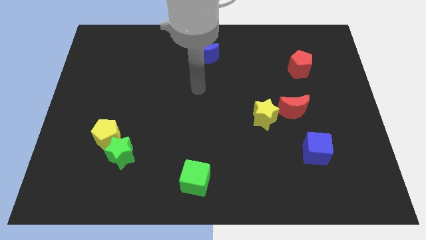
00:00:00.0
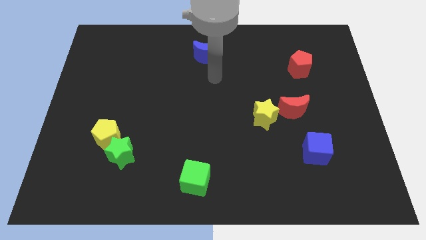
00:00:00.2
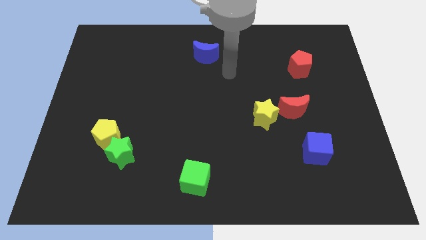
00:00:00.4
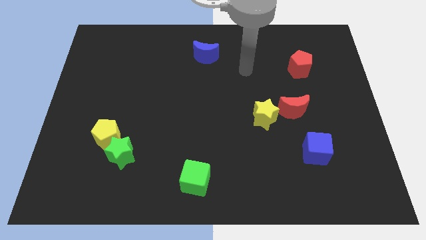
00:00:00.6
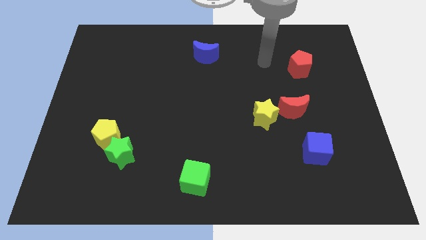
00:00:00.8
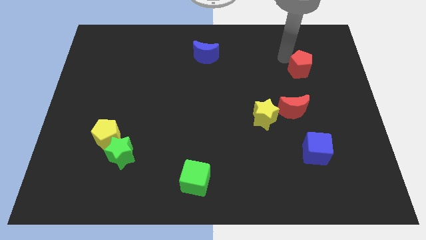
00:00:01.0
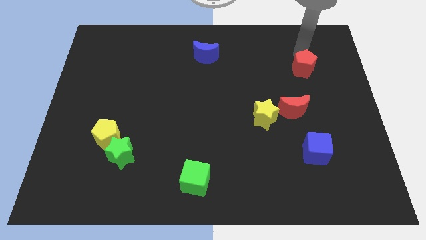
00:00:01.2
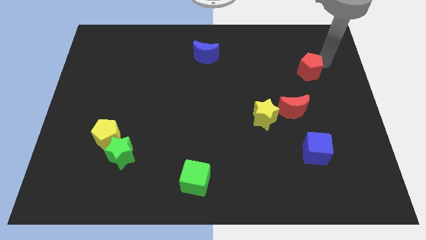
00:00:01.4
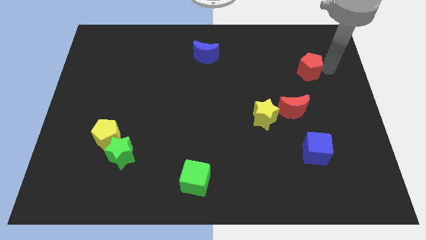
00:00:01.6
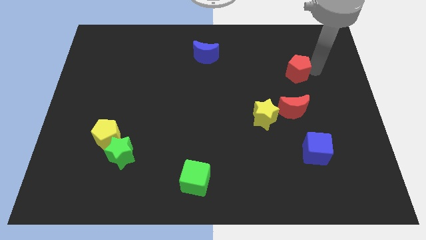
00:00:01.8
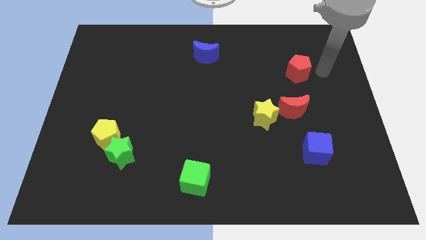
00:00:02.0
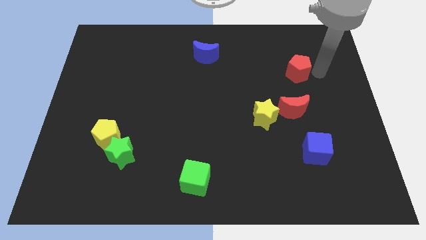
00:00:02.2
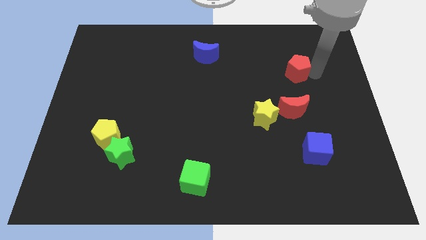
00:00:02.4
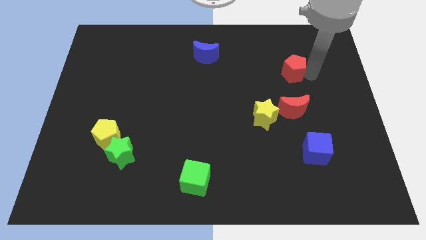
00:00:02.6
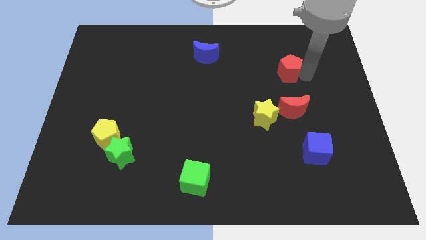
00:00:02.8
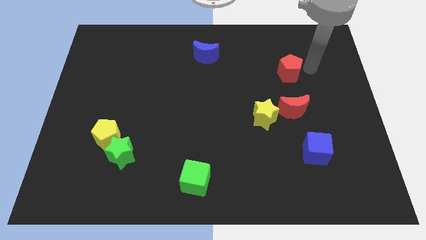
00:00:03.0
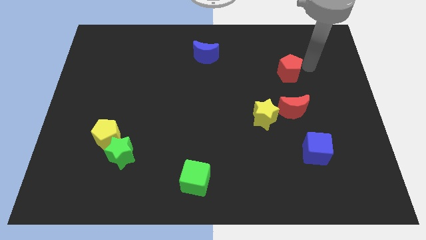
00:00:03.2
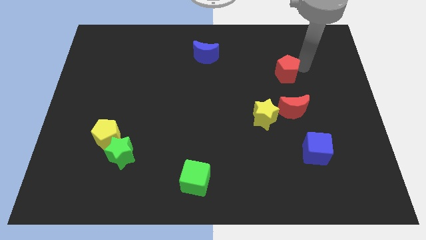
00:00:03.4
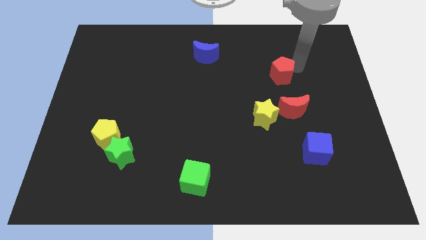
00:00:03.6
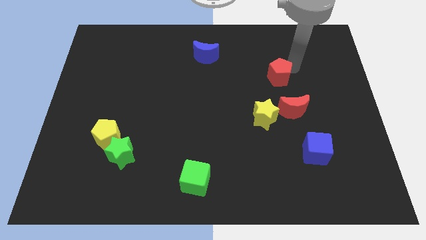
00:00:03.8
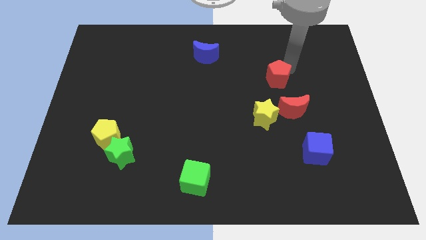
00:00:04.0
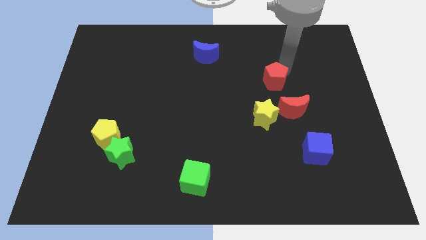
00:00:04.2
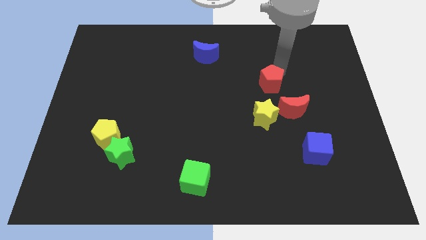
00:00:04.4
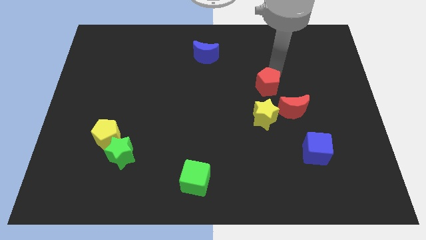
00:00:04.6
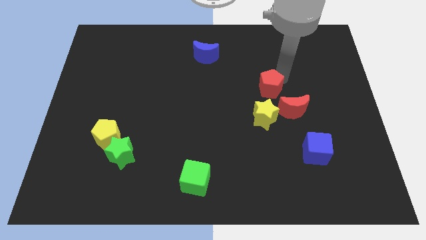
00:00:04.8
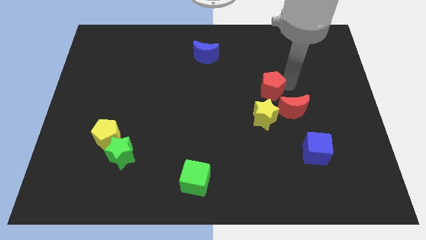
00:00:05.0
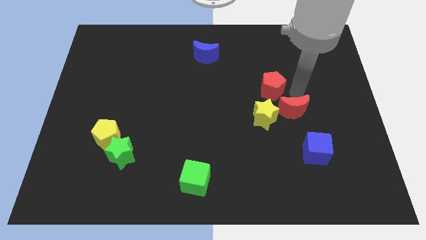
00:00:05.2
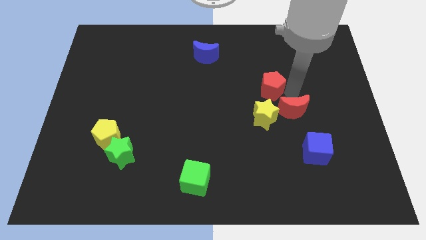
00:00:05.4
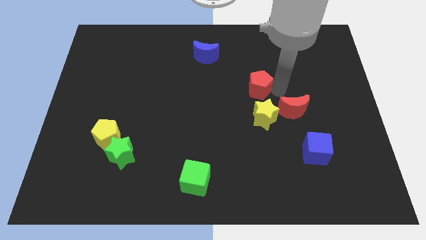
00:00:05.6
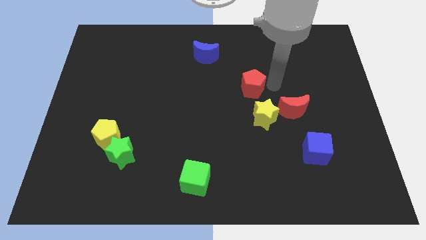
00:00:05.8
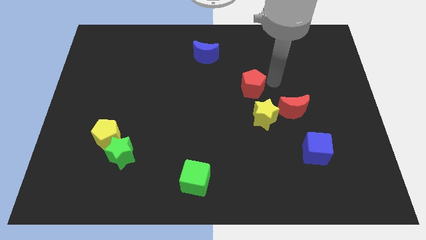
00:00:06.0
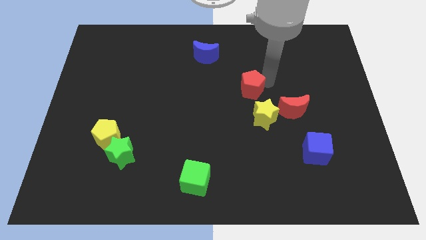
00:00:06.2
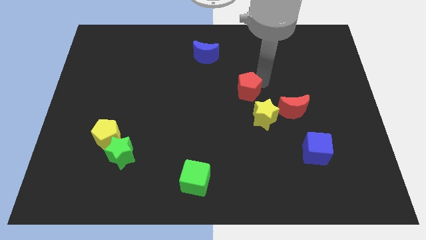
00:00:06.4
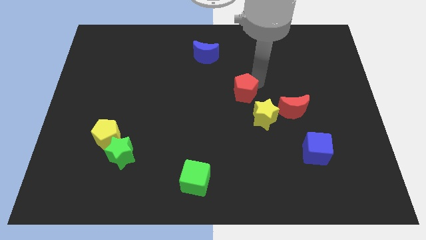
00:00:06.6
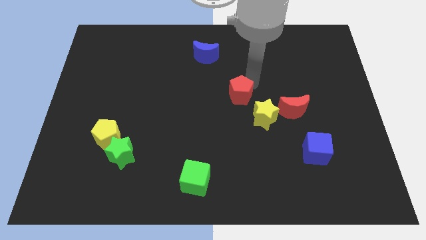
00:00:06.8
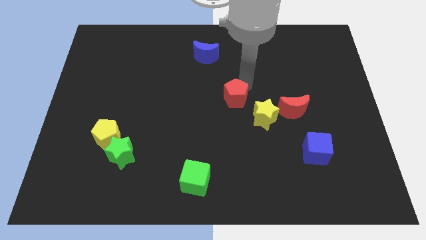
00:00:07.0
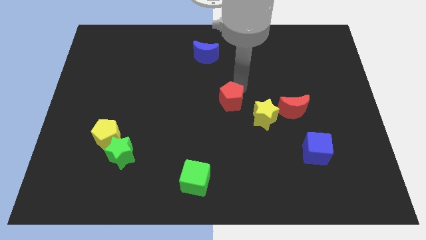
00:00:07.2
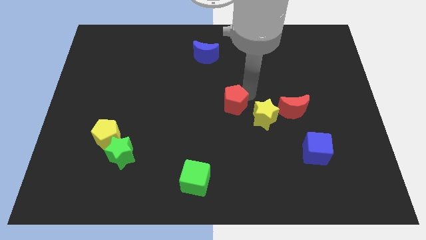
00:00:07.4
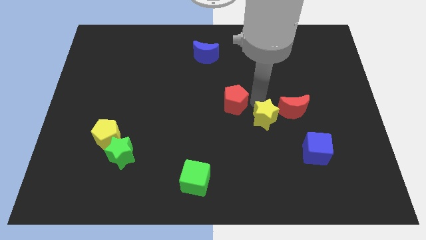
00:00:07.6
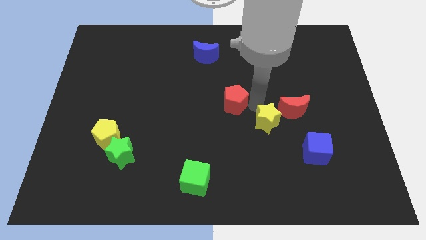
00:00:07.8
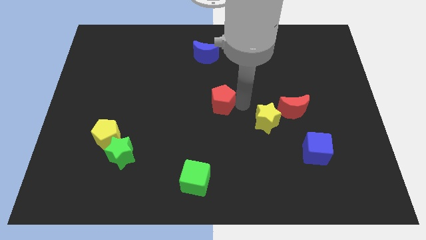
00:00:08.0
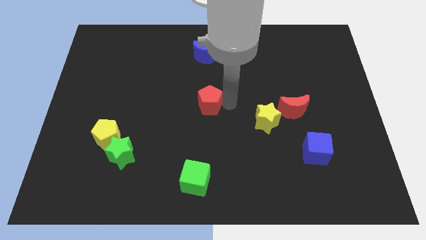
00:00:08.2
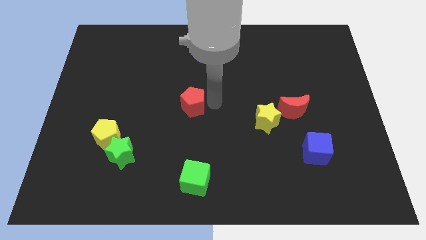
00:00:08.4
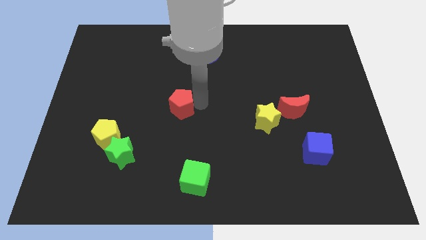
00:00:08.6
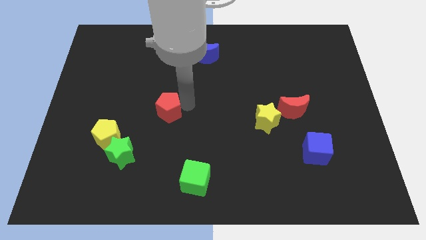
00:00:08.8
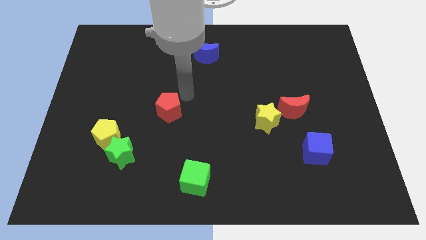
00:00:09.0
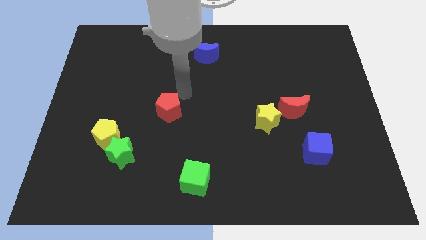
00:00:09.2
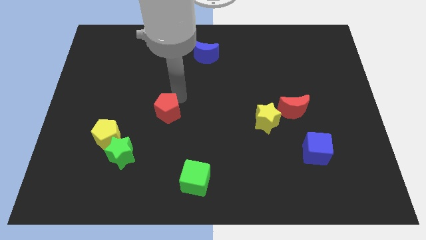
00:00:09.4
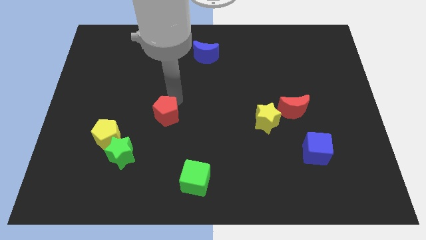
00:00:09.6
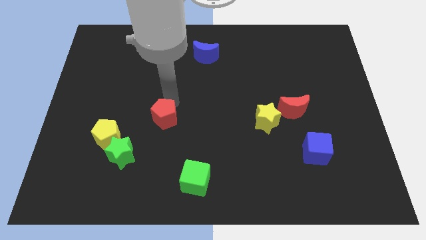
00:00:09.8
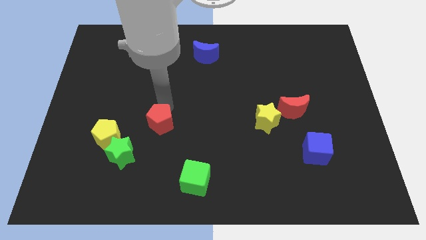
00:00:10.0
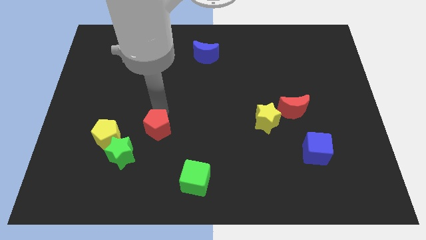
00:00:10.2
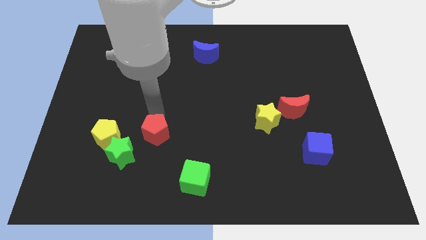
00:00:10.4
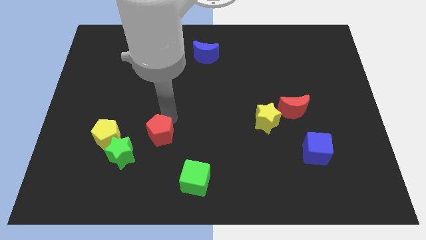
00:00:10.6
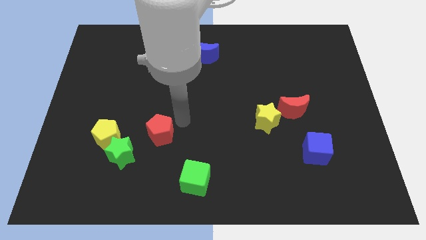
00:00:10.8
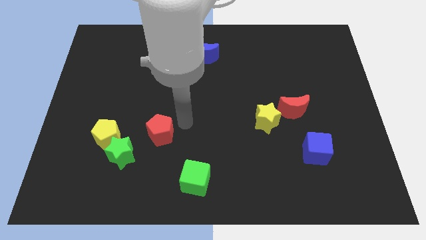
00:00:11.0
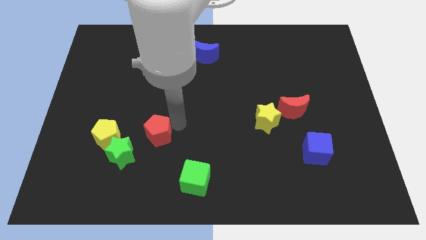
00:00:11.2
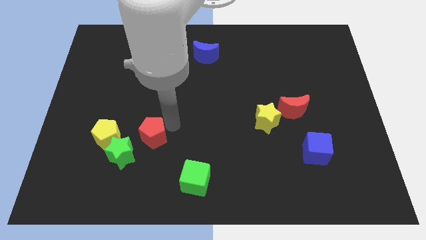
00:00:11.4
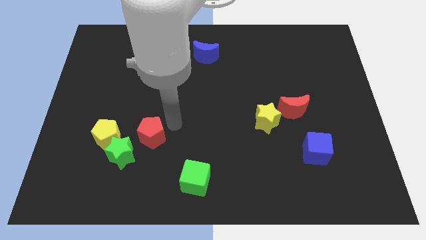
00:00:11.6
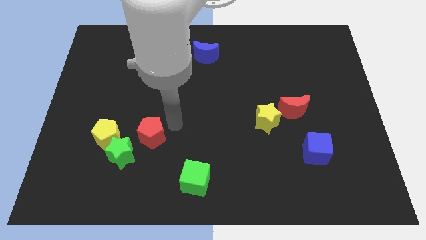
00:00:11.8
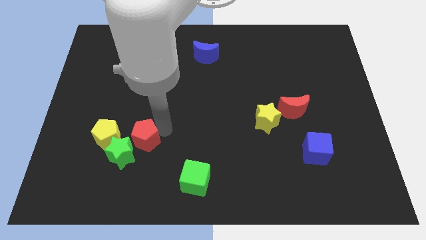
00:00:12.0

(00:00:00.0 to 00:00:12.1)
push the red pentagon next to the green star

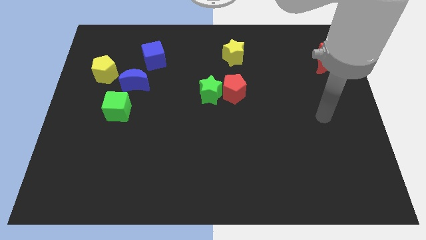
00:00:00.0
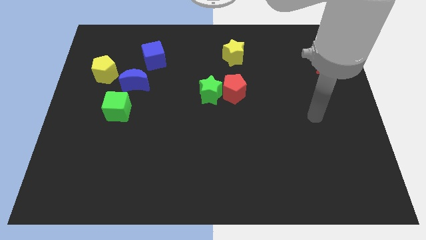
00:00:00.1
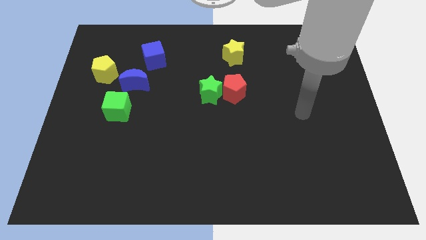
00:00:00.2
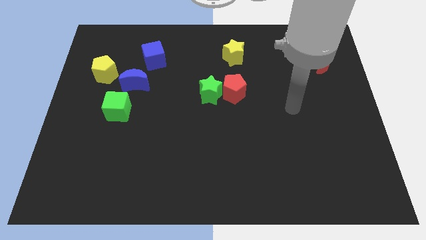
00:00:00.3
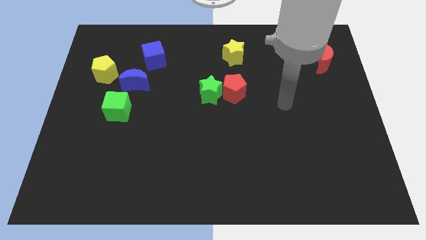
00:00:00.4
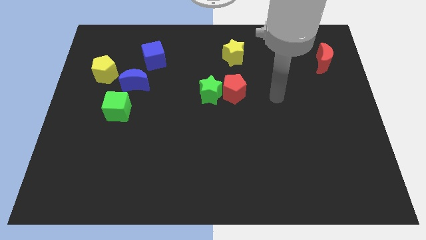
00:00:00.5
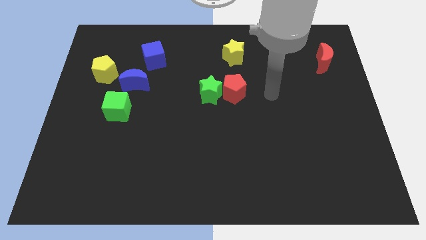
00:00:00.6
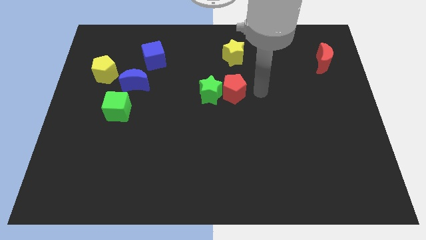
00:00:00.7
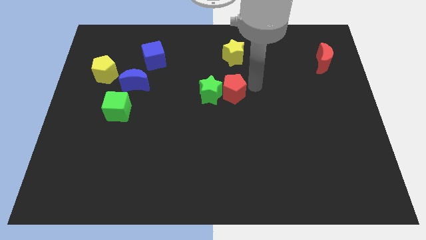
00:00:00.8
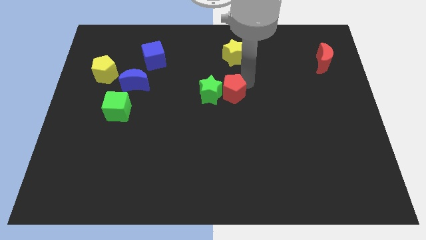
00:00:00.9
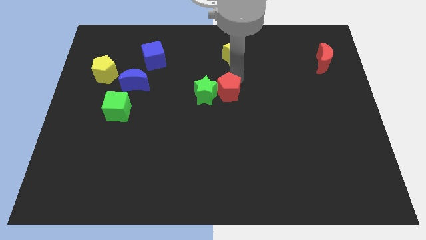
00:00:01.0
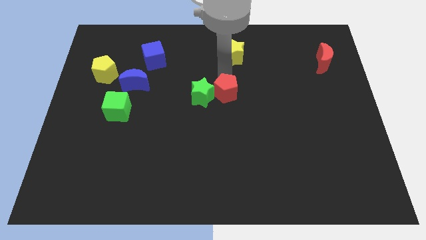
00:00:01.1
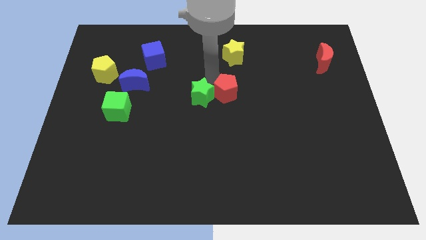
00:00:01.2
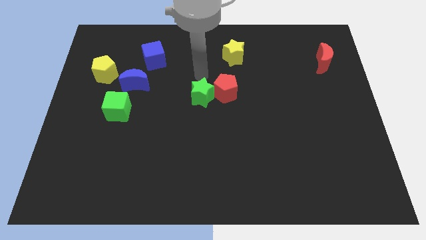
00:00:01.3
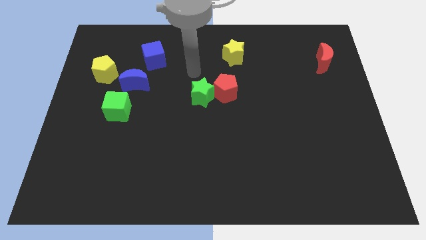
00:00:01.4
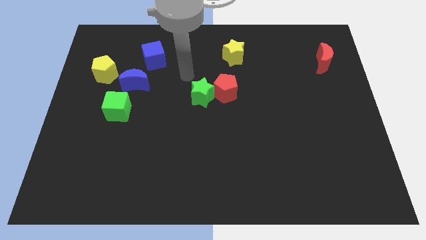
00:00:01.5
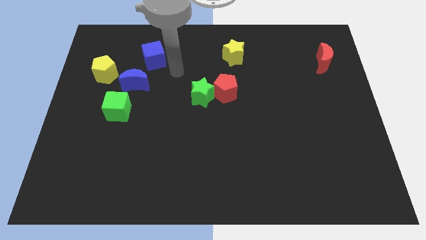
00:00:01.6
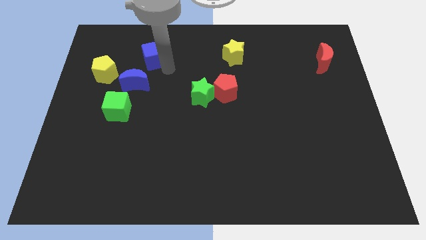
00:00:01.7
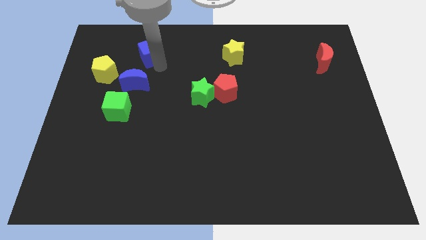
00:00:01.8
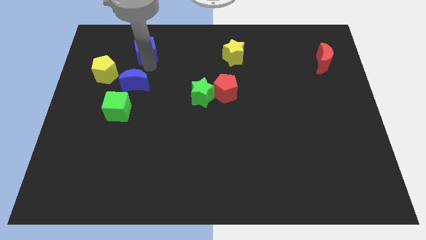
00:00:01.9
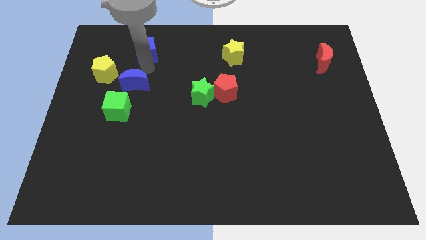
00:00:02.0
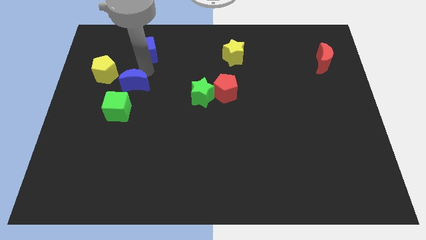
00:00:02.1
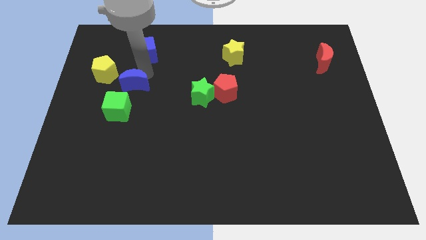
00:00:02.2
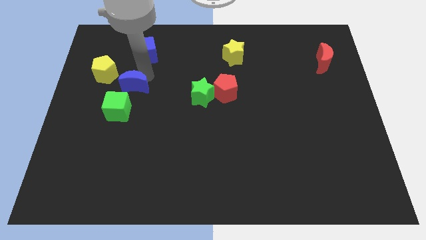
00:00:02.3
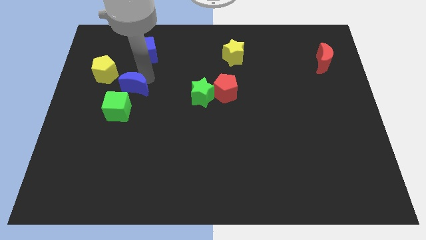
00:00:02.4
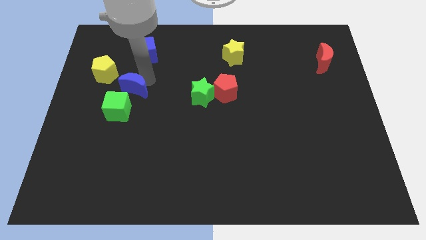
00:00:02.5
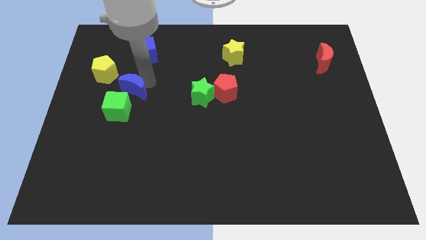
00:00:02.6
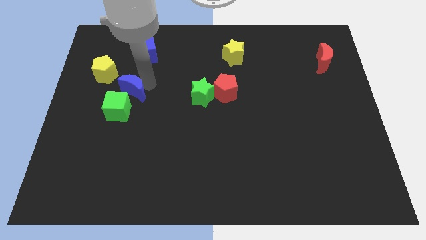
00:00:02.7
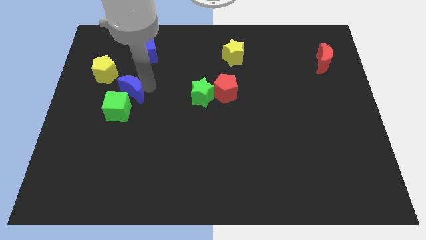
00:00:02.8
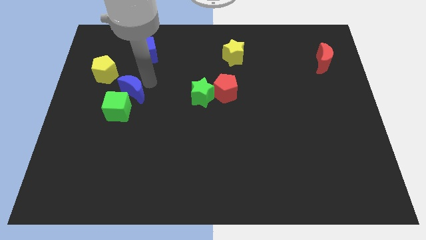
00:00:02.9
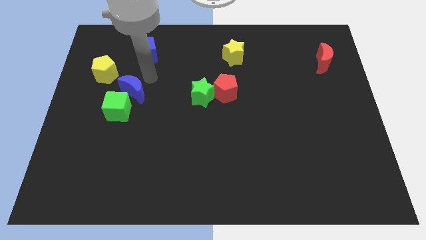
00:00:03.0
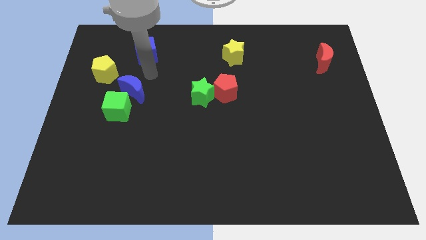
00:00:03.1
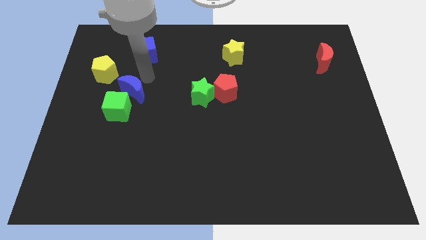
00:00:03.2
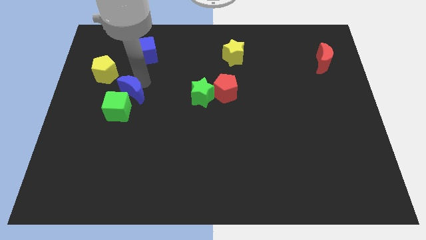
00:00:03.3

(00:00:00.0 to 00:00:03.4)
move the blue moon towards the green cube
